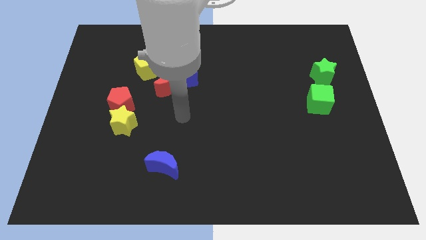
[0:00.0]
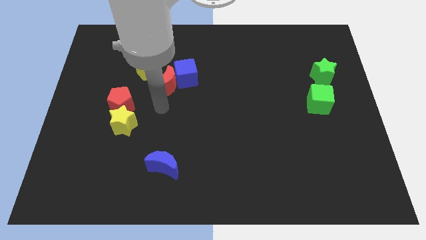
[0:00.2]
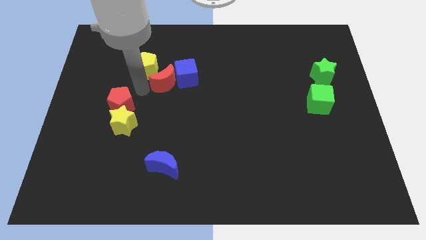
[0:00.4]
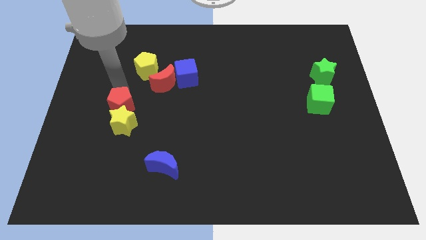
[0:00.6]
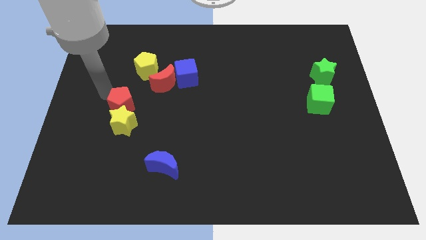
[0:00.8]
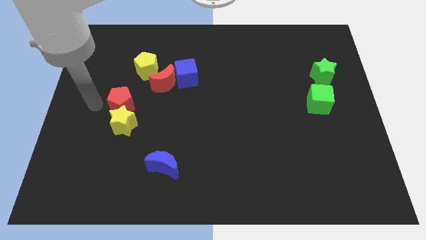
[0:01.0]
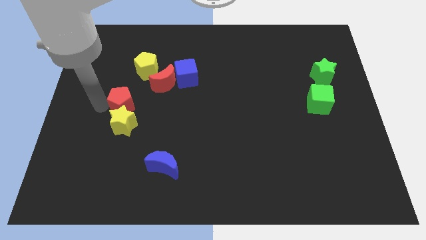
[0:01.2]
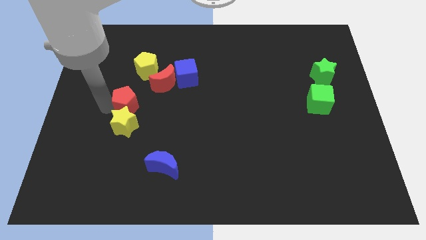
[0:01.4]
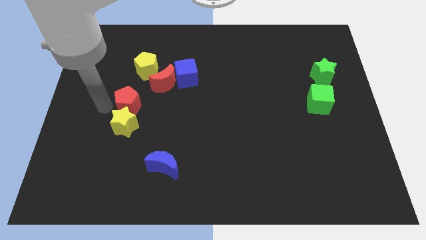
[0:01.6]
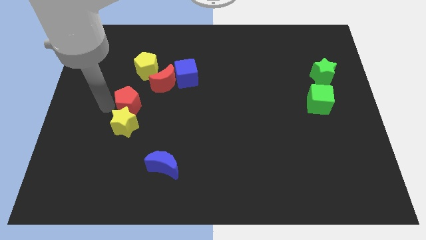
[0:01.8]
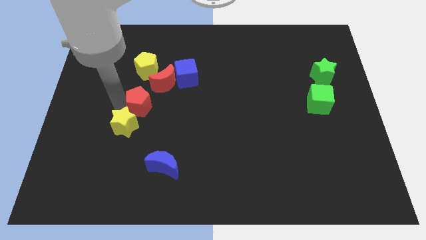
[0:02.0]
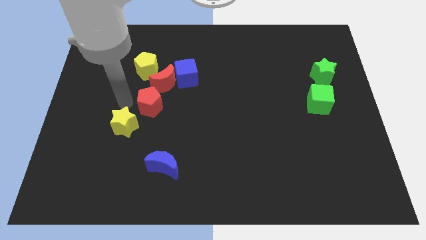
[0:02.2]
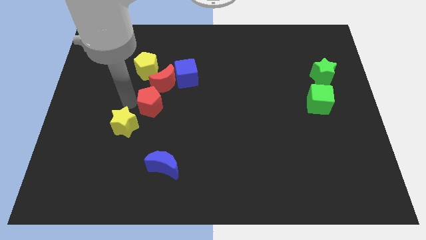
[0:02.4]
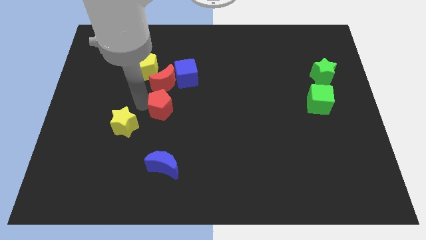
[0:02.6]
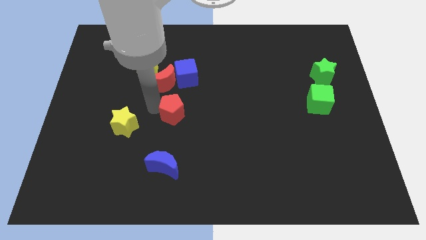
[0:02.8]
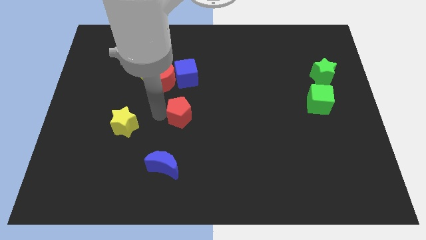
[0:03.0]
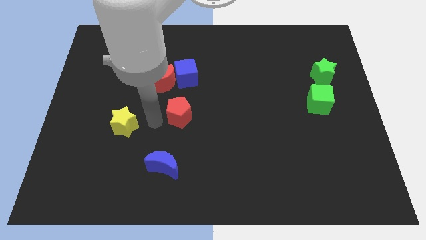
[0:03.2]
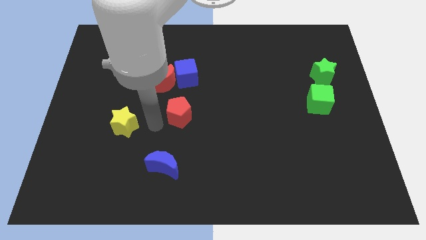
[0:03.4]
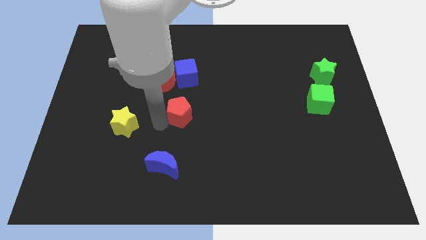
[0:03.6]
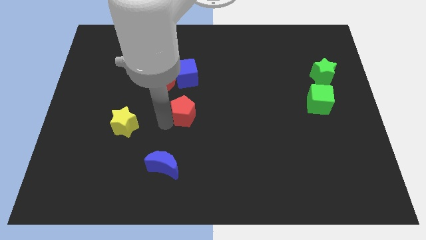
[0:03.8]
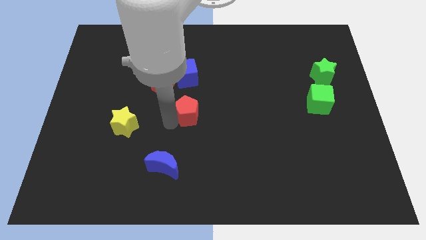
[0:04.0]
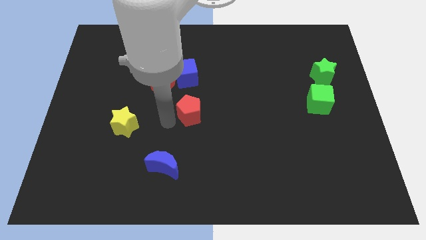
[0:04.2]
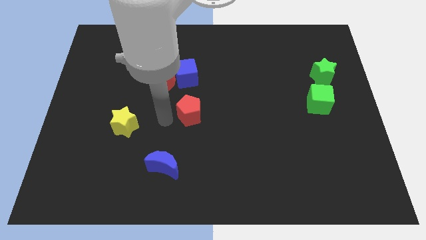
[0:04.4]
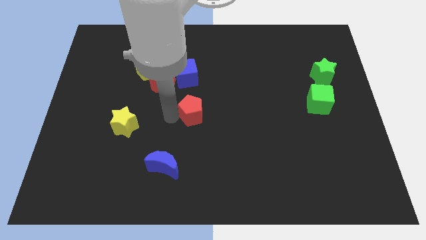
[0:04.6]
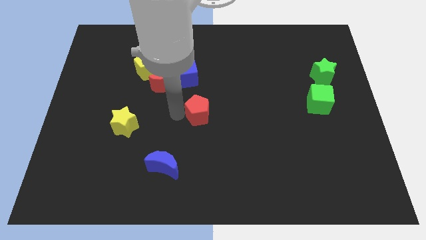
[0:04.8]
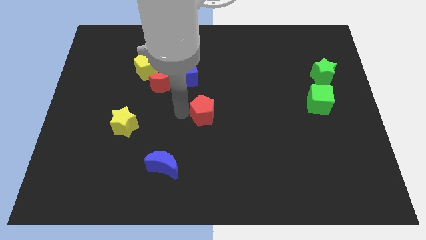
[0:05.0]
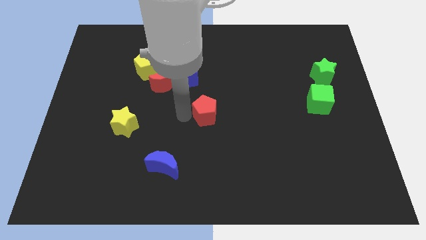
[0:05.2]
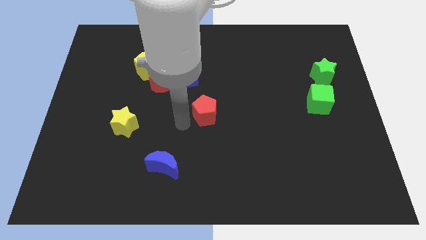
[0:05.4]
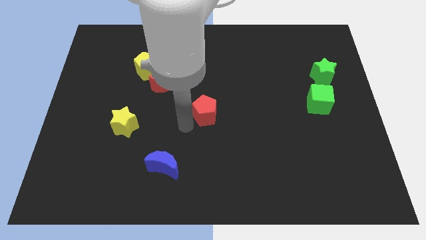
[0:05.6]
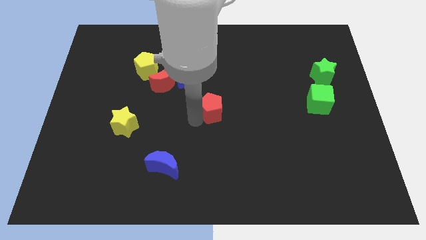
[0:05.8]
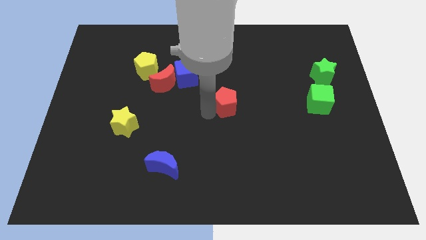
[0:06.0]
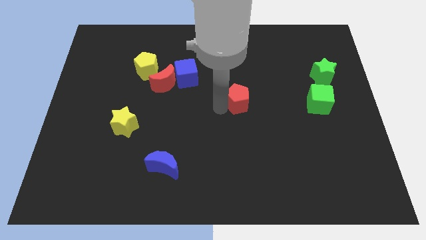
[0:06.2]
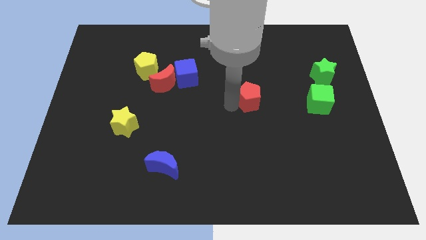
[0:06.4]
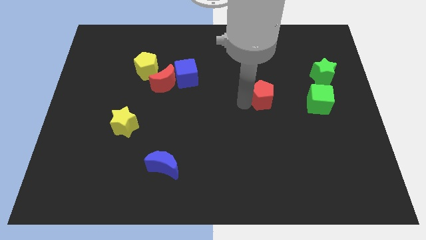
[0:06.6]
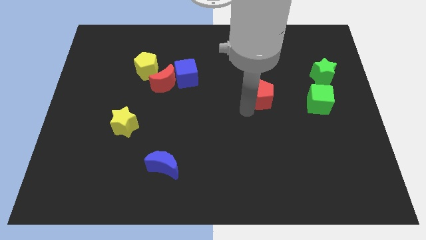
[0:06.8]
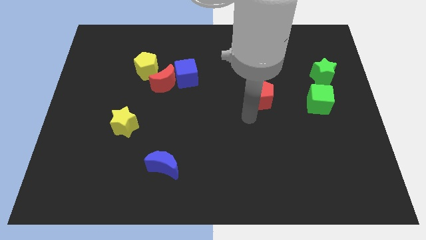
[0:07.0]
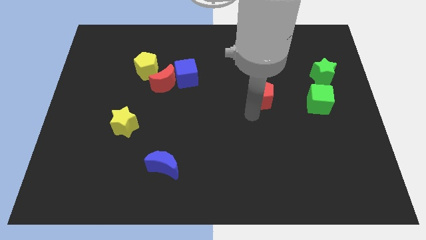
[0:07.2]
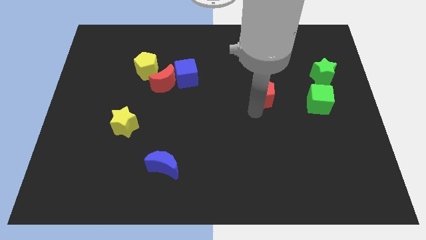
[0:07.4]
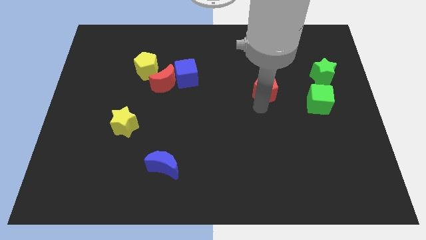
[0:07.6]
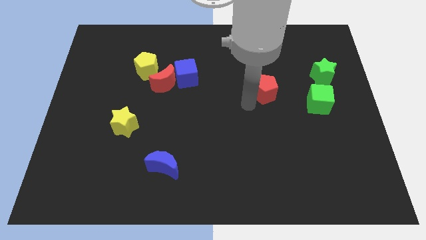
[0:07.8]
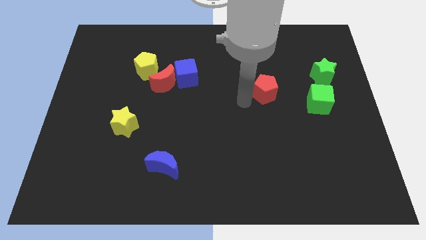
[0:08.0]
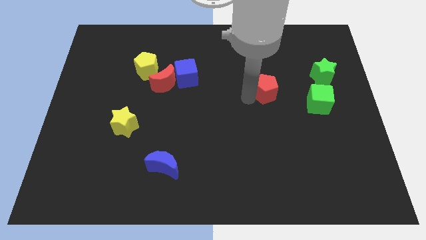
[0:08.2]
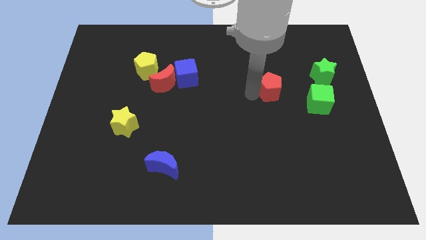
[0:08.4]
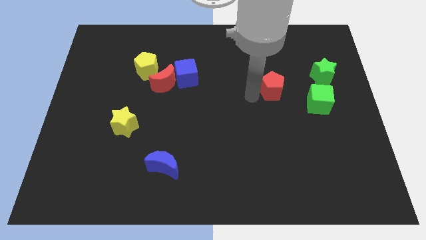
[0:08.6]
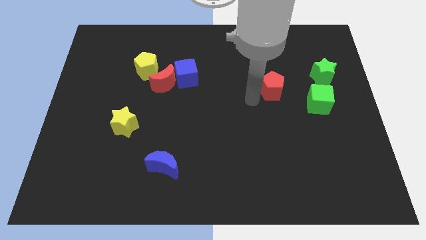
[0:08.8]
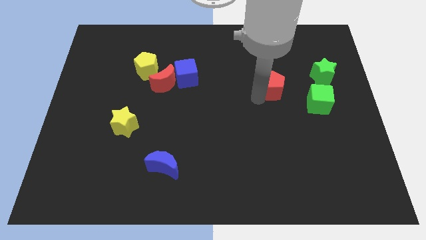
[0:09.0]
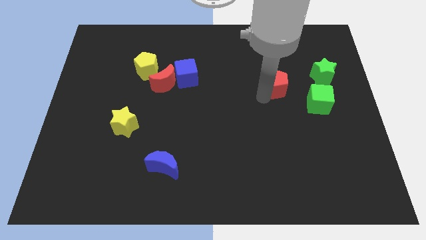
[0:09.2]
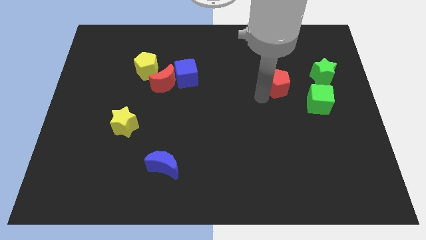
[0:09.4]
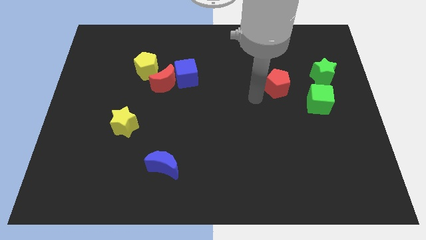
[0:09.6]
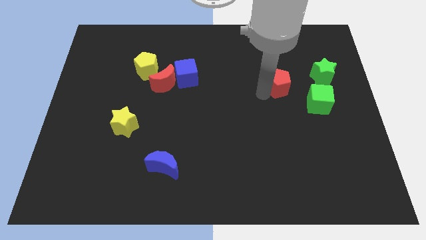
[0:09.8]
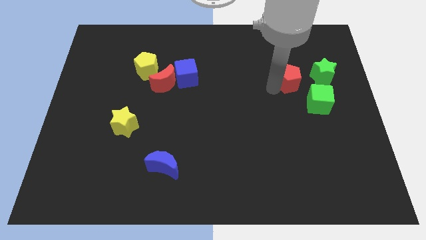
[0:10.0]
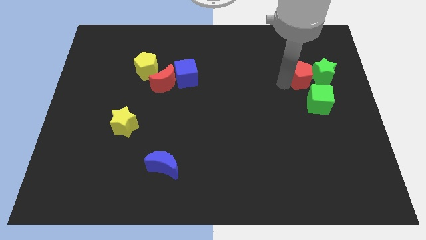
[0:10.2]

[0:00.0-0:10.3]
move the red pentagon next to the green star

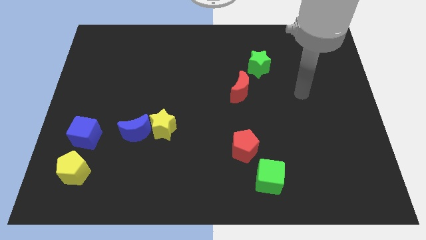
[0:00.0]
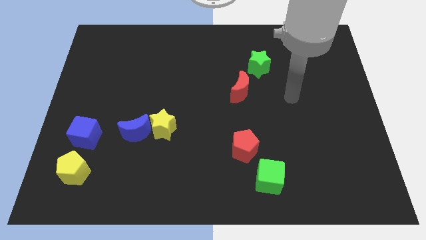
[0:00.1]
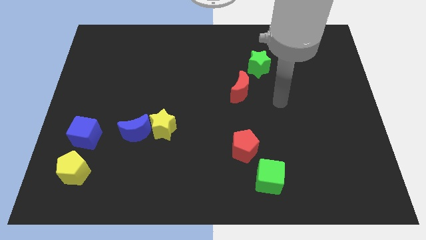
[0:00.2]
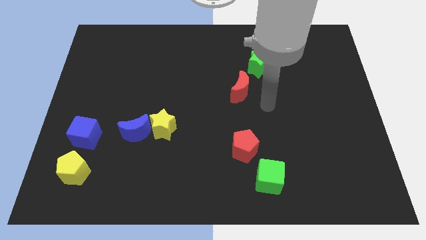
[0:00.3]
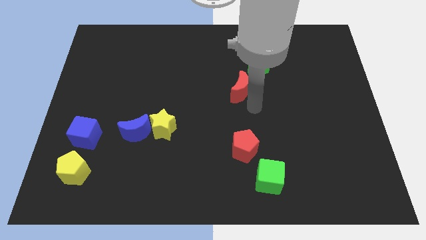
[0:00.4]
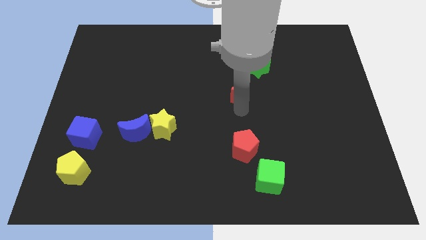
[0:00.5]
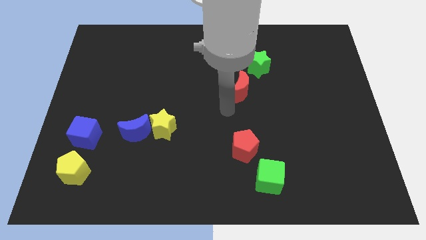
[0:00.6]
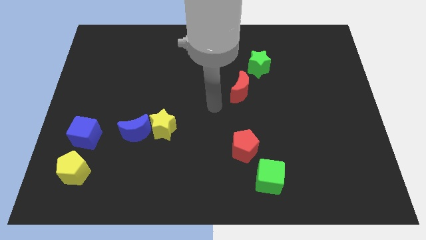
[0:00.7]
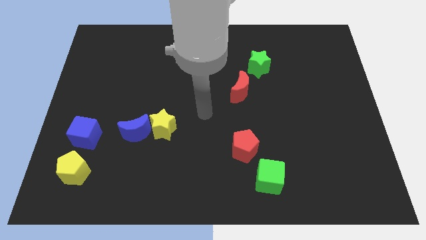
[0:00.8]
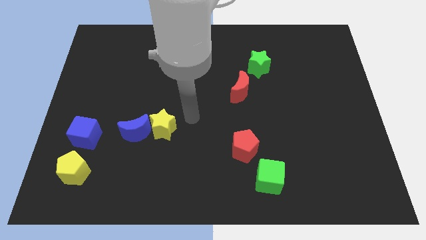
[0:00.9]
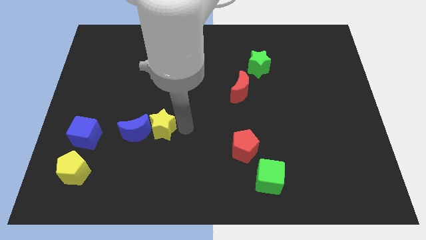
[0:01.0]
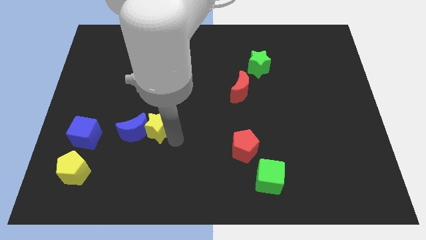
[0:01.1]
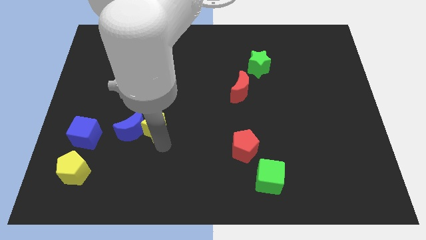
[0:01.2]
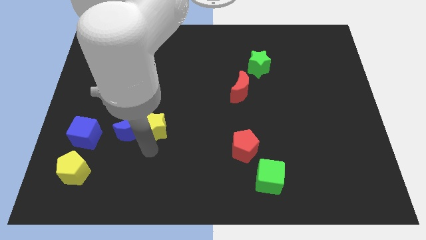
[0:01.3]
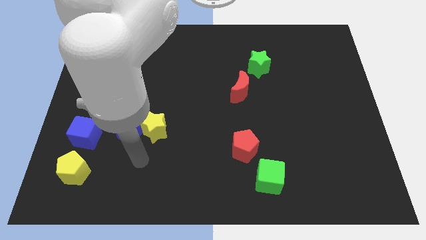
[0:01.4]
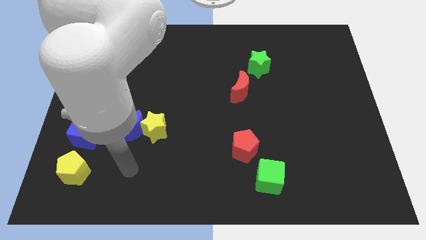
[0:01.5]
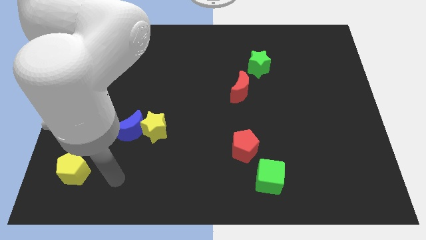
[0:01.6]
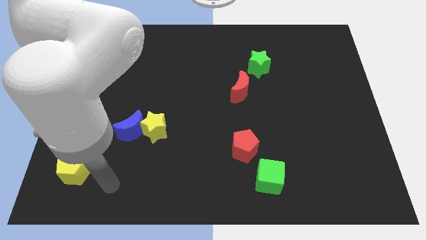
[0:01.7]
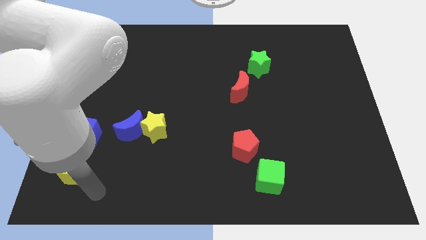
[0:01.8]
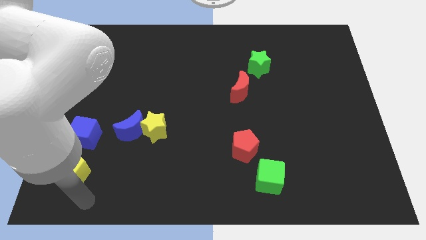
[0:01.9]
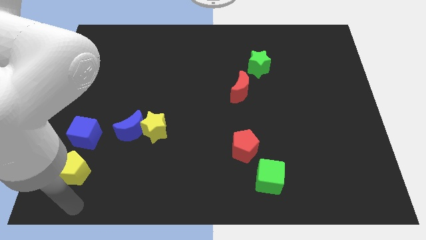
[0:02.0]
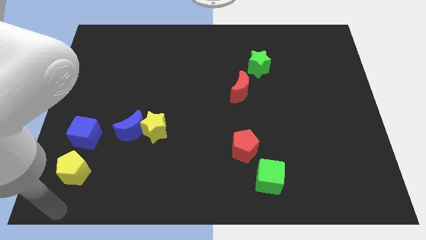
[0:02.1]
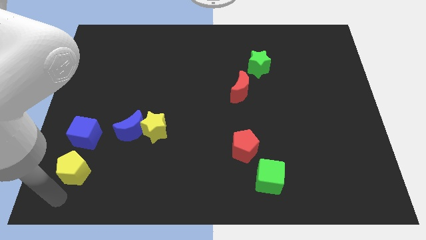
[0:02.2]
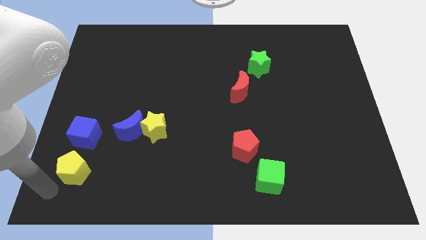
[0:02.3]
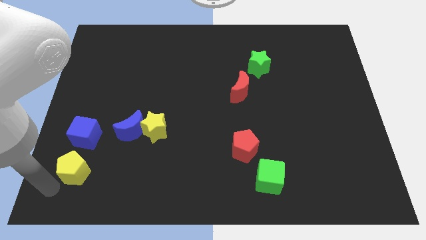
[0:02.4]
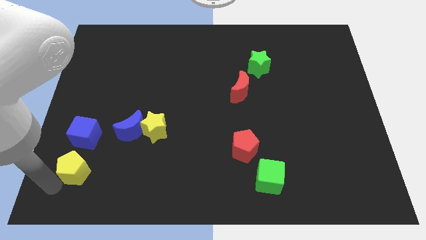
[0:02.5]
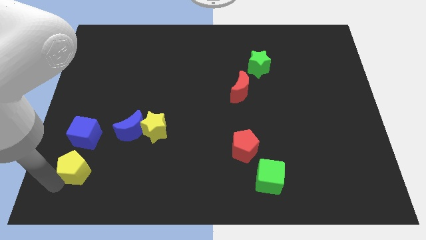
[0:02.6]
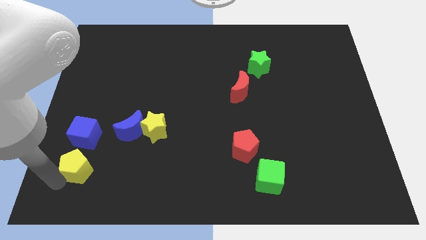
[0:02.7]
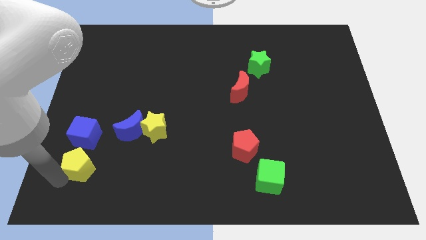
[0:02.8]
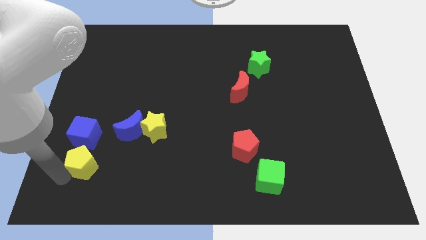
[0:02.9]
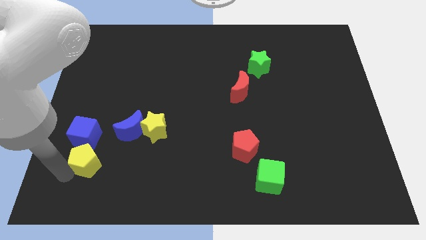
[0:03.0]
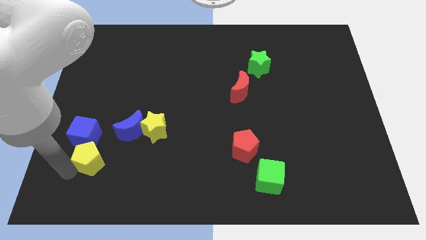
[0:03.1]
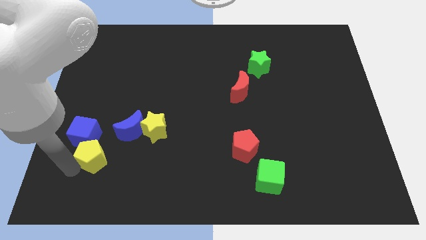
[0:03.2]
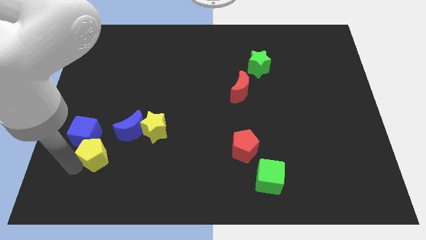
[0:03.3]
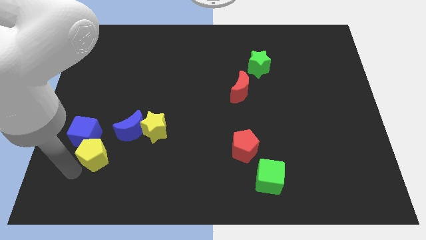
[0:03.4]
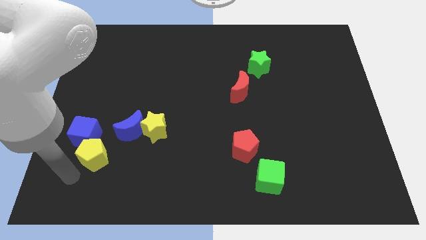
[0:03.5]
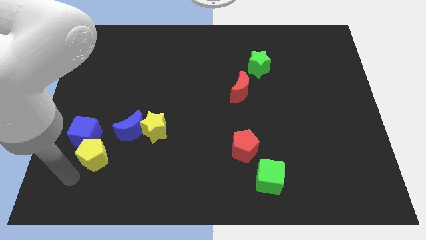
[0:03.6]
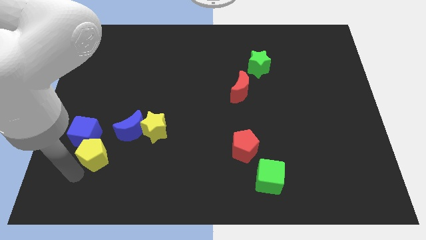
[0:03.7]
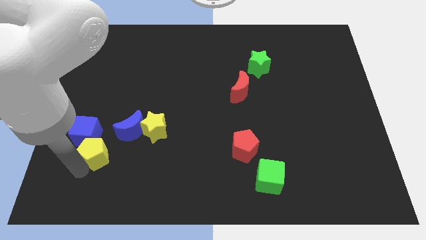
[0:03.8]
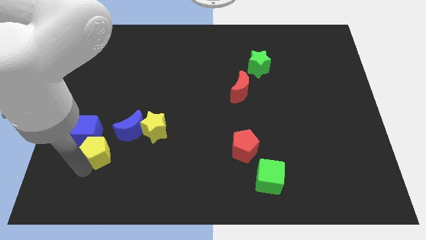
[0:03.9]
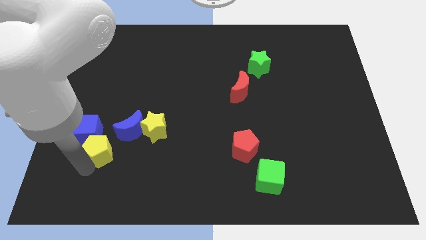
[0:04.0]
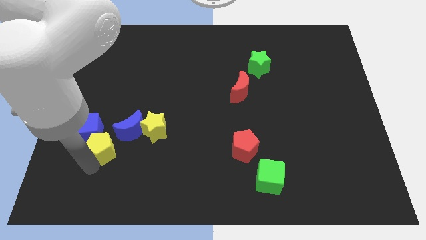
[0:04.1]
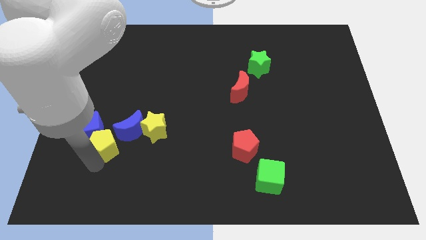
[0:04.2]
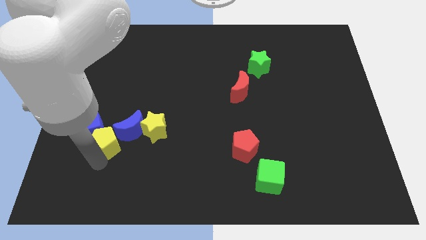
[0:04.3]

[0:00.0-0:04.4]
slide the yellow pentagon to the blue moon
